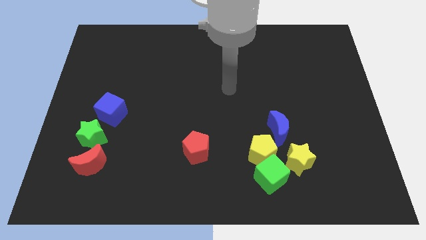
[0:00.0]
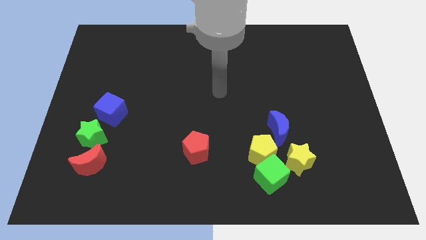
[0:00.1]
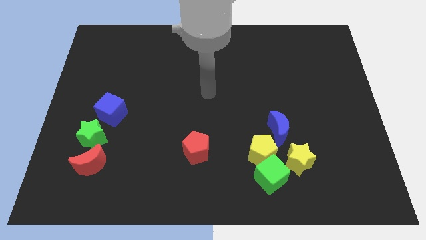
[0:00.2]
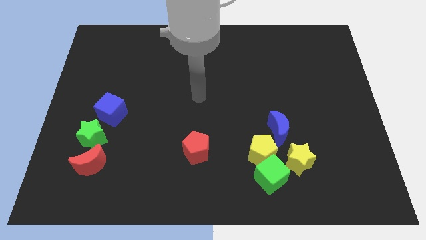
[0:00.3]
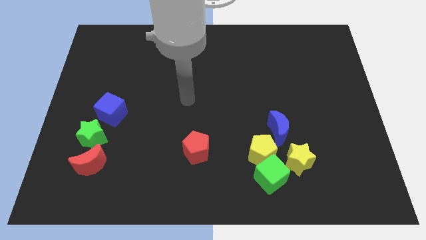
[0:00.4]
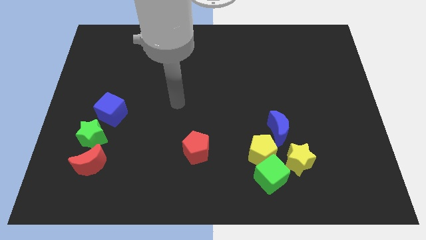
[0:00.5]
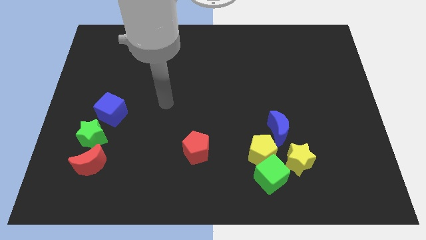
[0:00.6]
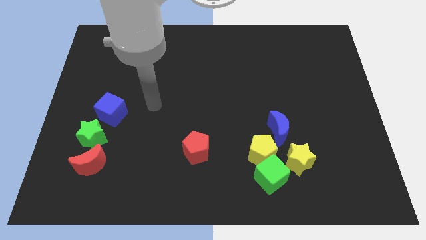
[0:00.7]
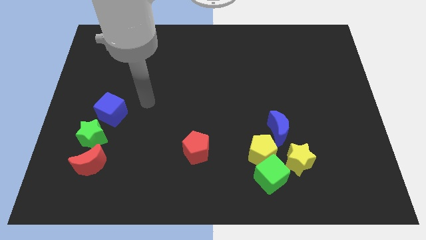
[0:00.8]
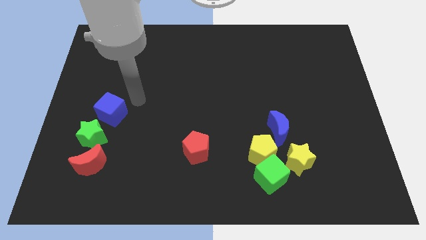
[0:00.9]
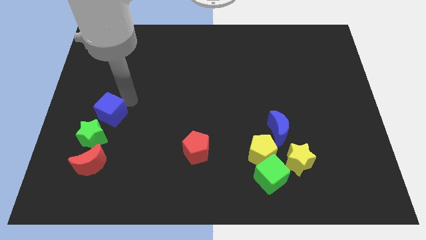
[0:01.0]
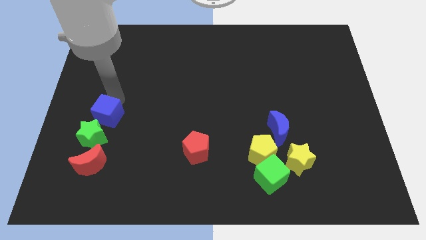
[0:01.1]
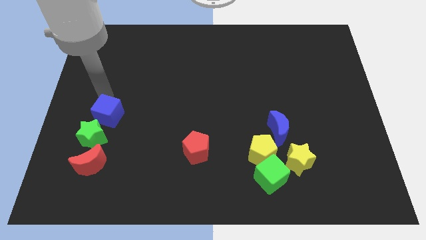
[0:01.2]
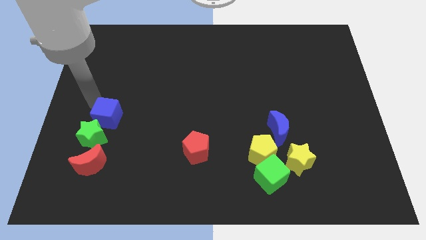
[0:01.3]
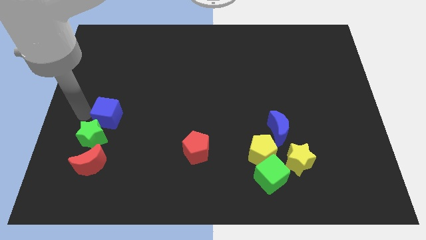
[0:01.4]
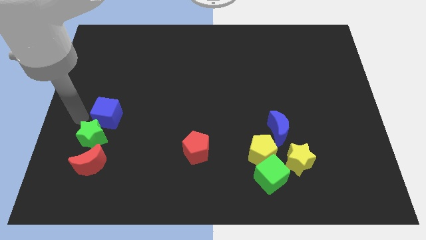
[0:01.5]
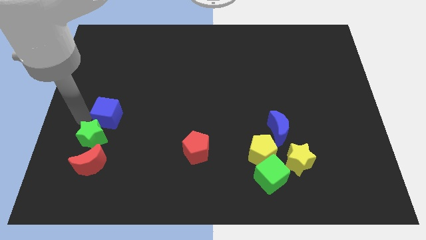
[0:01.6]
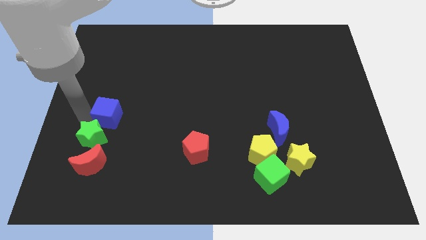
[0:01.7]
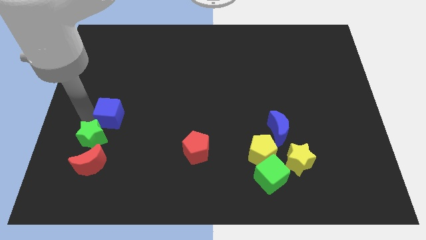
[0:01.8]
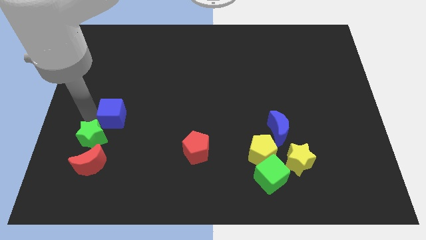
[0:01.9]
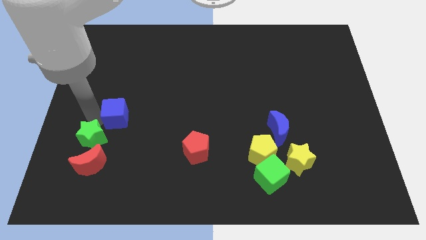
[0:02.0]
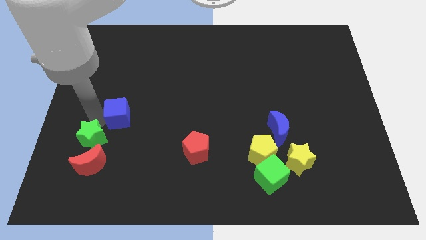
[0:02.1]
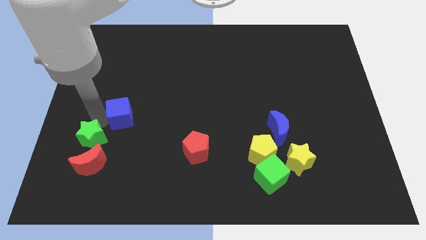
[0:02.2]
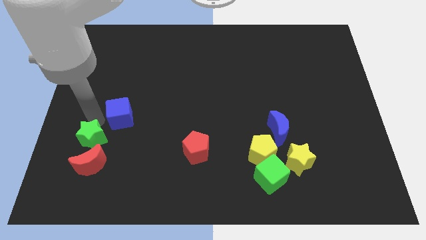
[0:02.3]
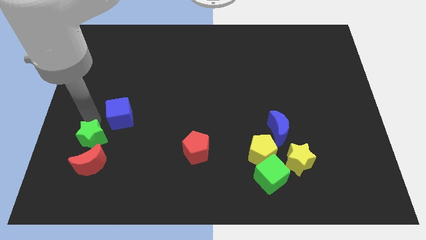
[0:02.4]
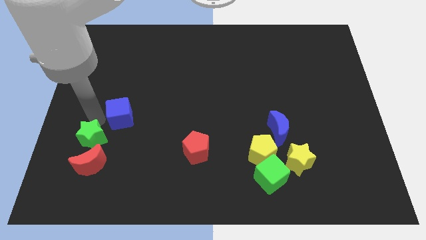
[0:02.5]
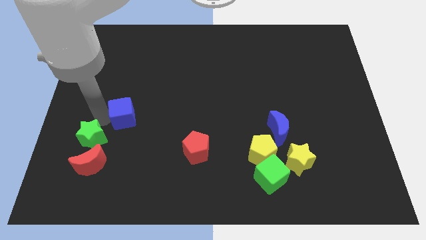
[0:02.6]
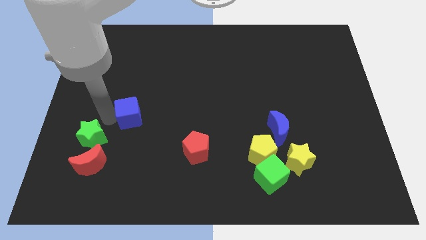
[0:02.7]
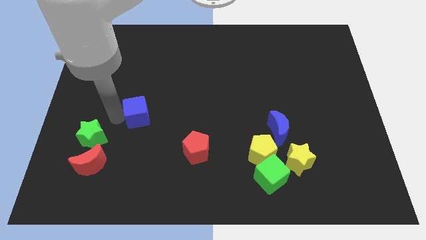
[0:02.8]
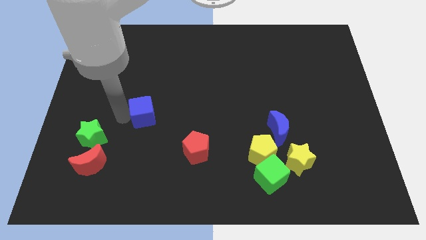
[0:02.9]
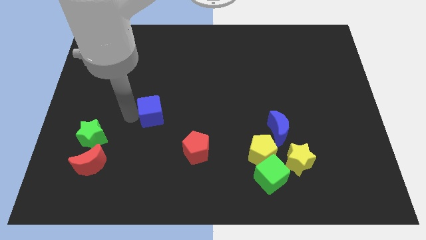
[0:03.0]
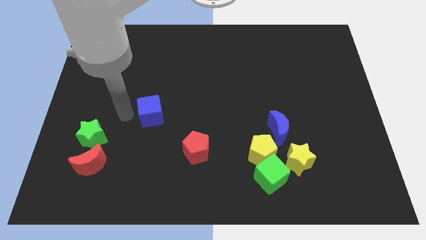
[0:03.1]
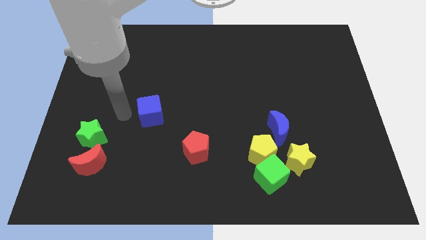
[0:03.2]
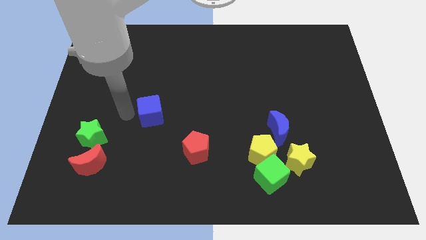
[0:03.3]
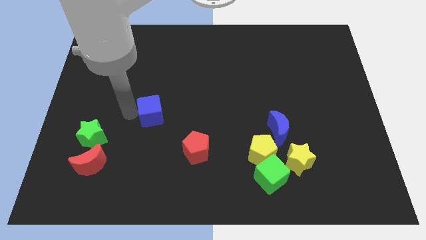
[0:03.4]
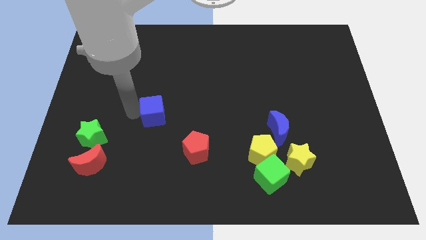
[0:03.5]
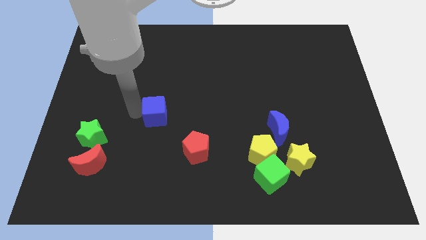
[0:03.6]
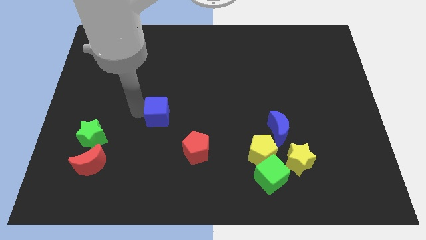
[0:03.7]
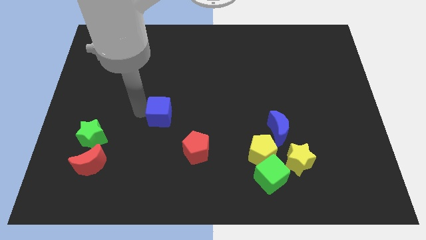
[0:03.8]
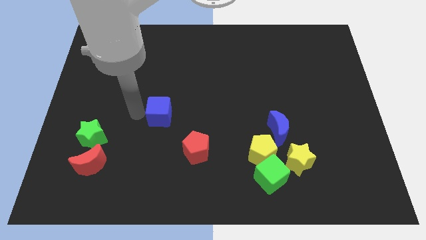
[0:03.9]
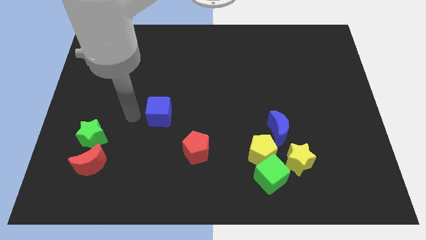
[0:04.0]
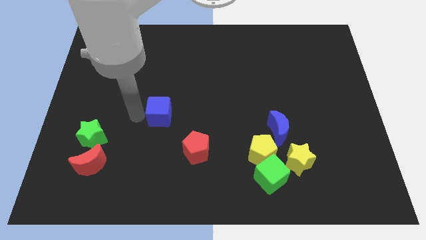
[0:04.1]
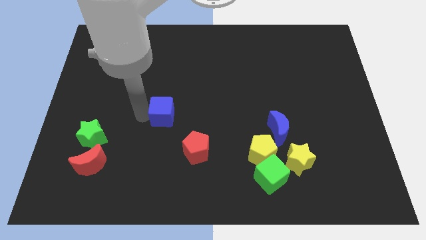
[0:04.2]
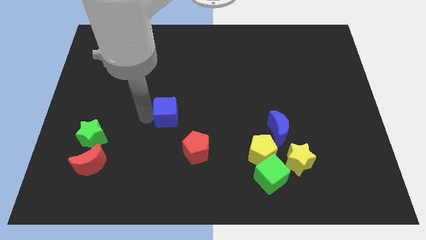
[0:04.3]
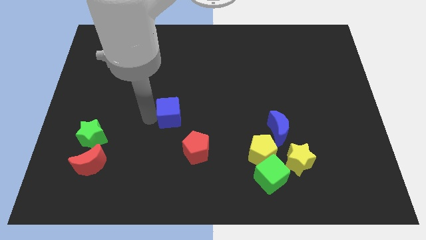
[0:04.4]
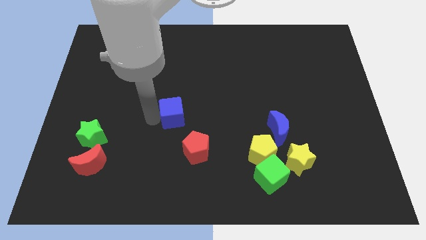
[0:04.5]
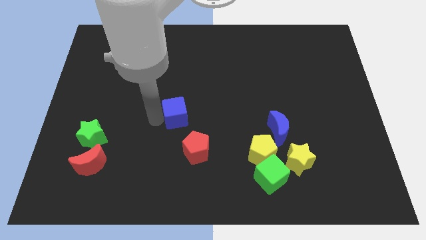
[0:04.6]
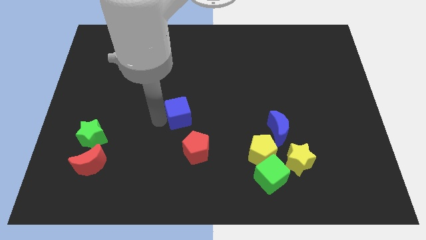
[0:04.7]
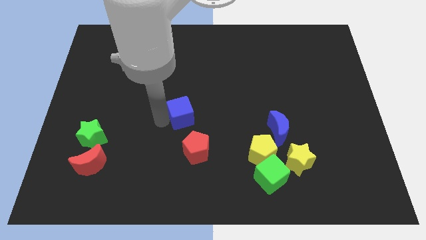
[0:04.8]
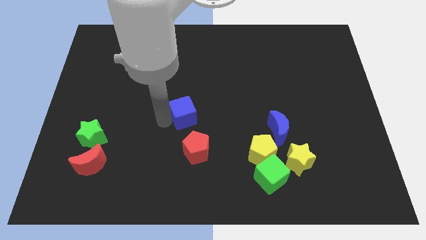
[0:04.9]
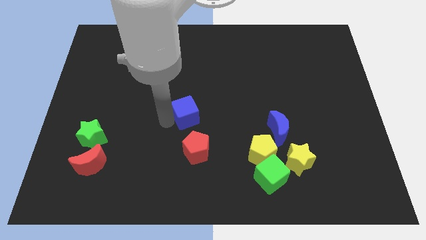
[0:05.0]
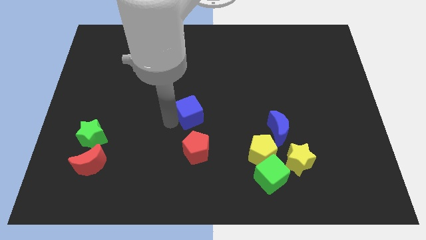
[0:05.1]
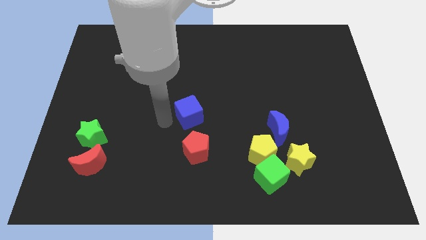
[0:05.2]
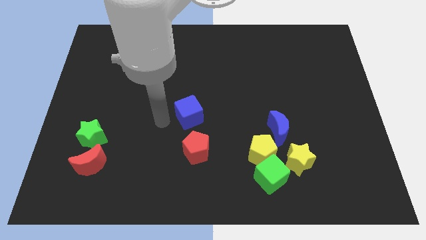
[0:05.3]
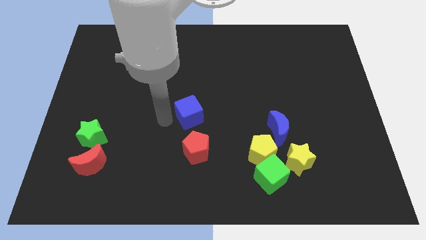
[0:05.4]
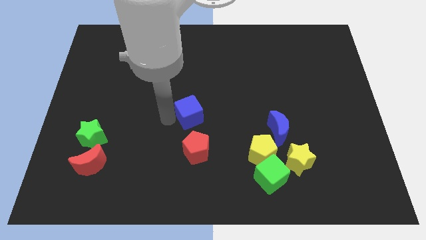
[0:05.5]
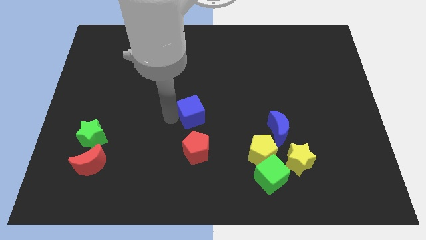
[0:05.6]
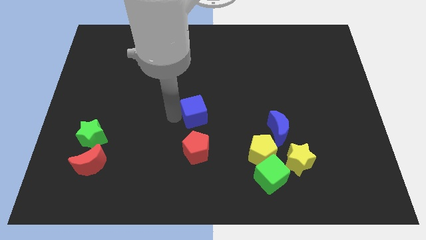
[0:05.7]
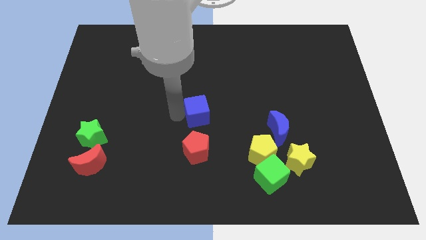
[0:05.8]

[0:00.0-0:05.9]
move the blue cube to the right

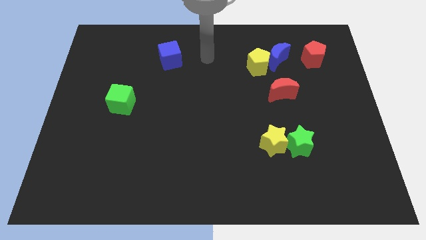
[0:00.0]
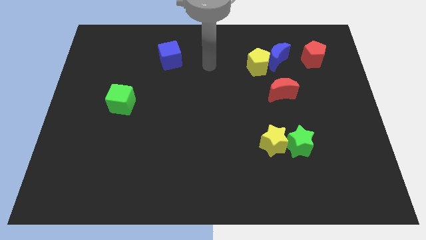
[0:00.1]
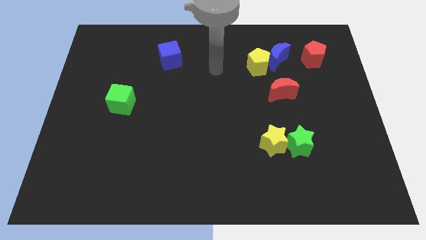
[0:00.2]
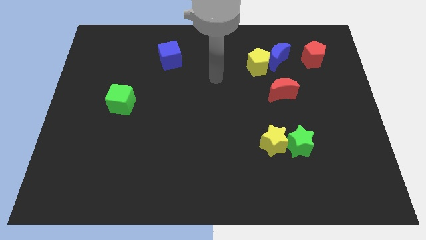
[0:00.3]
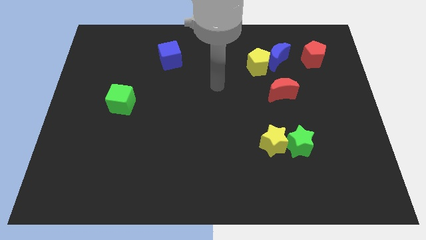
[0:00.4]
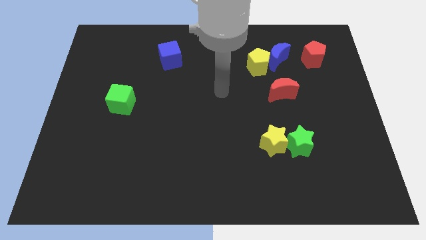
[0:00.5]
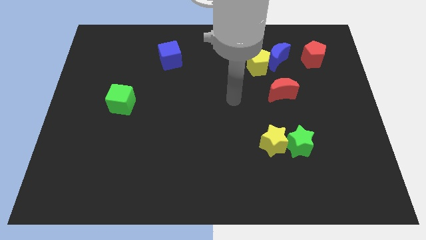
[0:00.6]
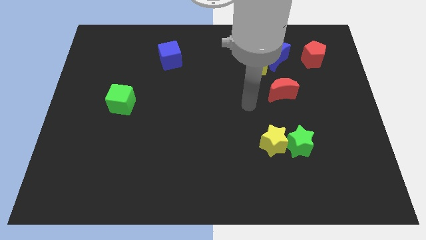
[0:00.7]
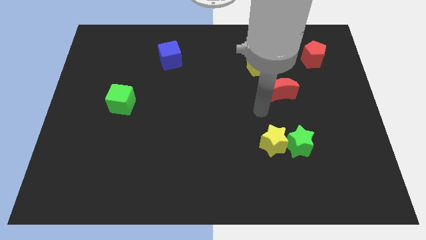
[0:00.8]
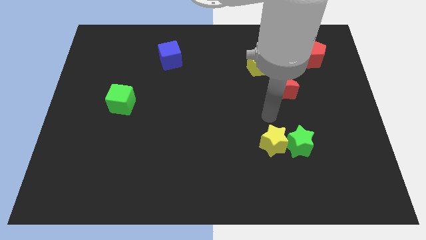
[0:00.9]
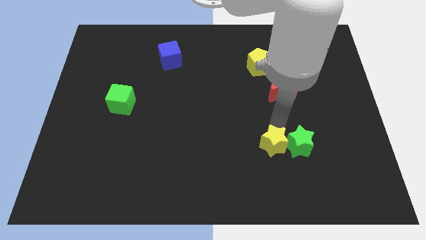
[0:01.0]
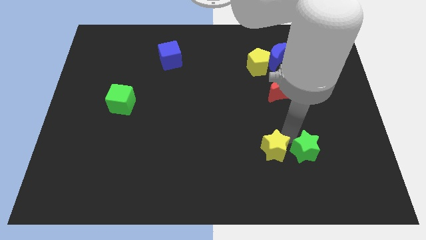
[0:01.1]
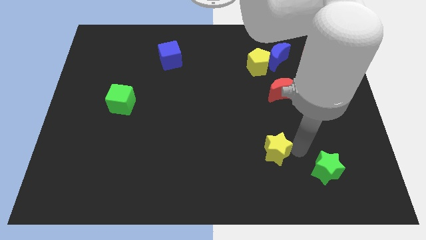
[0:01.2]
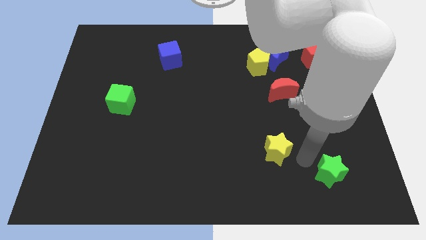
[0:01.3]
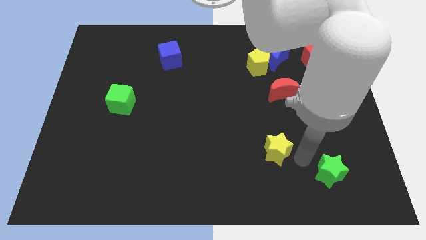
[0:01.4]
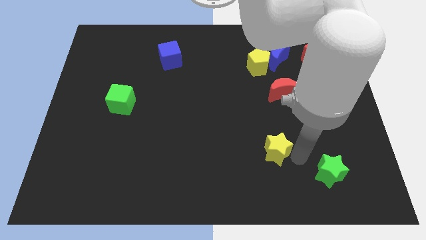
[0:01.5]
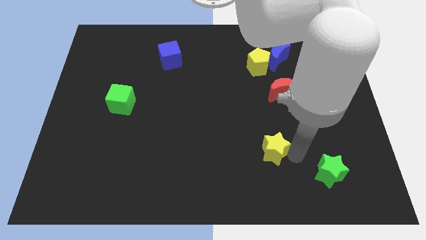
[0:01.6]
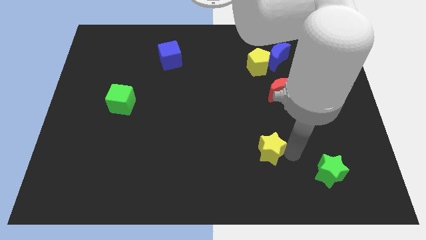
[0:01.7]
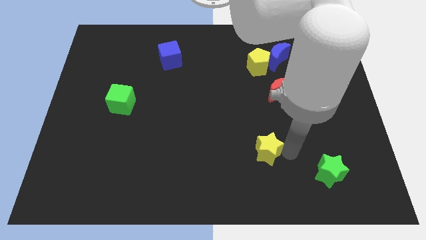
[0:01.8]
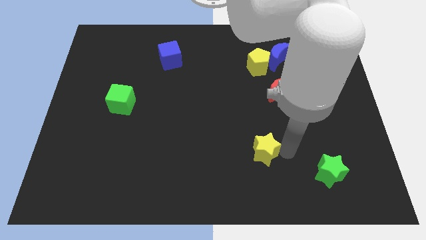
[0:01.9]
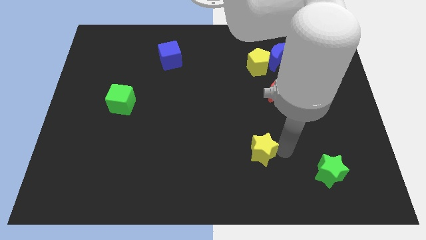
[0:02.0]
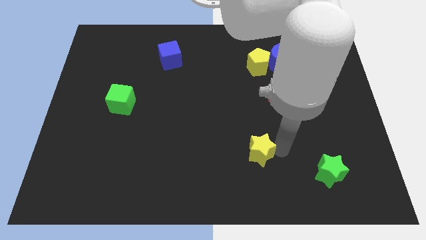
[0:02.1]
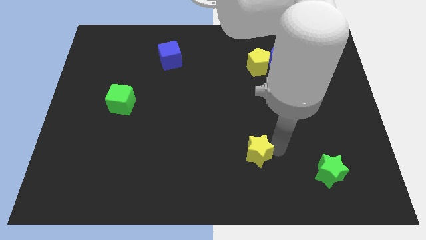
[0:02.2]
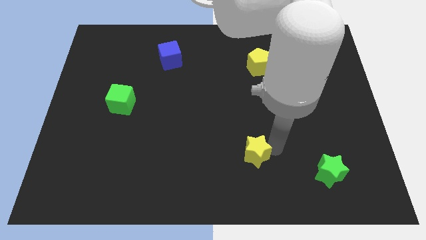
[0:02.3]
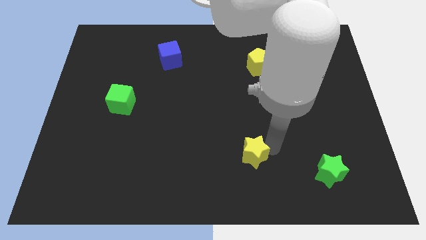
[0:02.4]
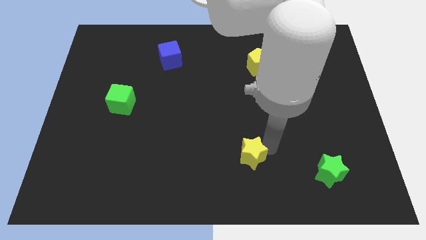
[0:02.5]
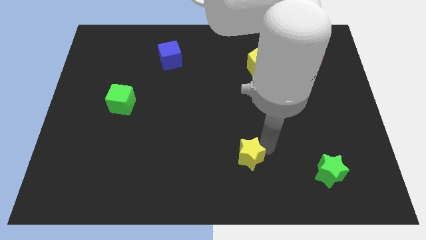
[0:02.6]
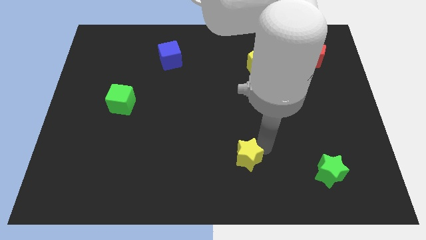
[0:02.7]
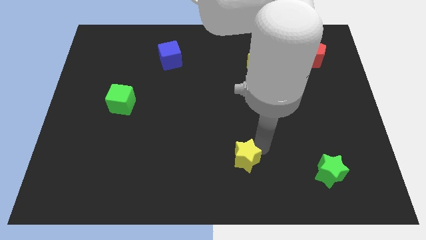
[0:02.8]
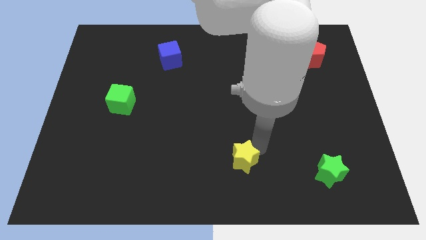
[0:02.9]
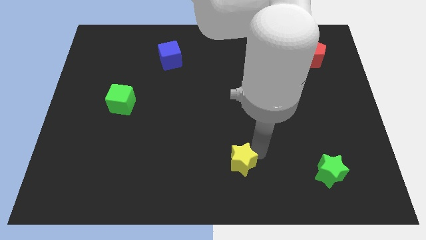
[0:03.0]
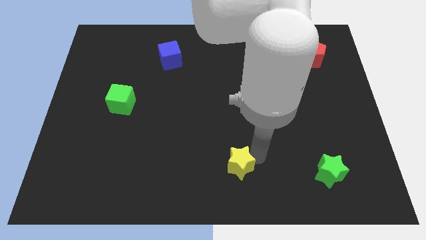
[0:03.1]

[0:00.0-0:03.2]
move the yellow star to the left a little bit
